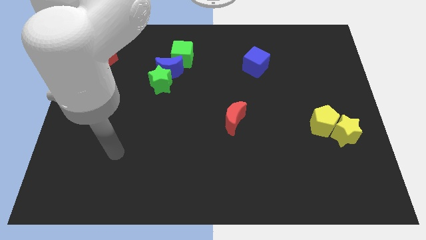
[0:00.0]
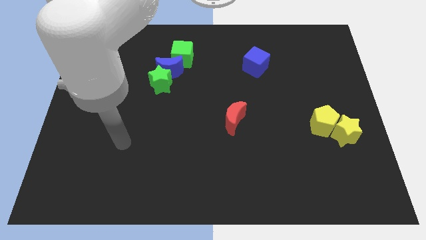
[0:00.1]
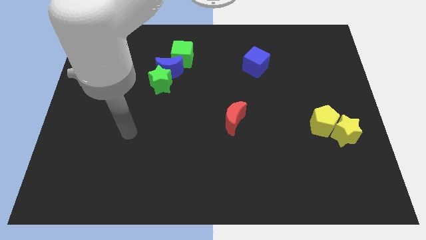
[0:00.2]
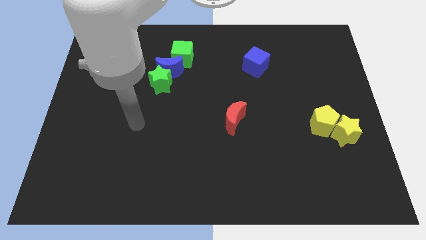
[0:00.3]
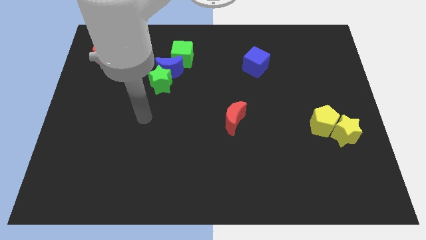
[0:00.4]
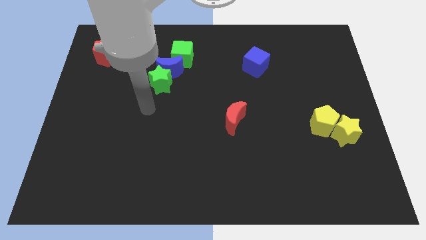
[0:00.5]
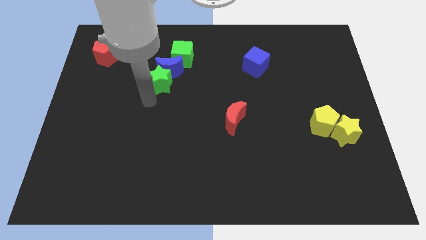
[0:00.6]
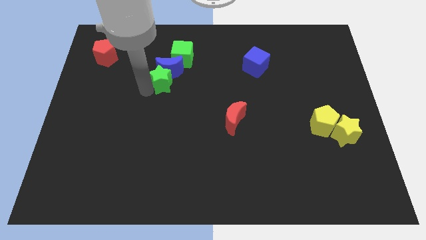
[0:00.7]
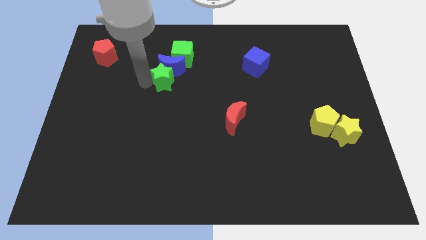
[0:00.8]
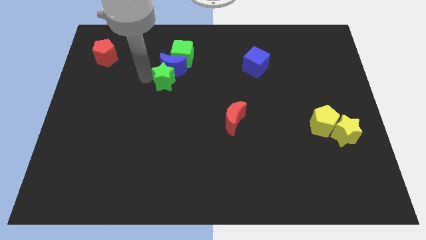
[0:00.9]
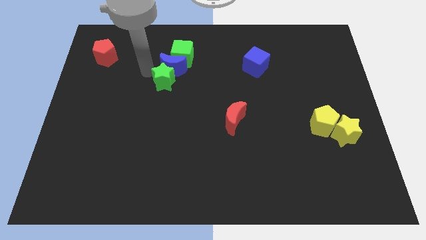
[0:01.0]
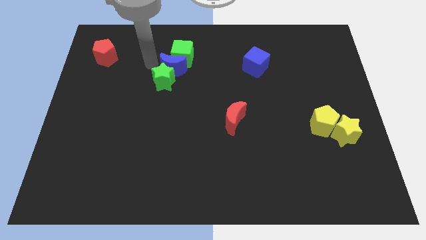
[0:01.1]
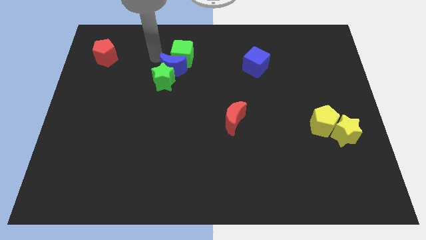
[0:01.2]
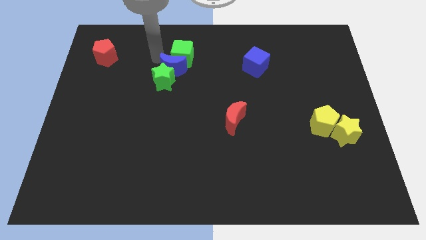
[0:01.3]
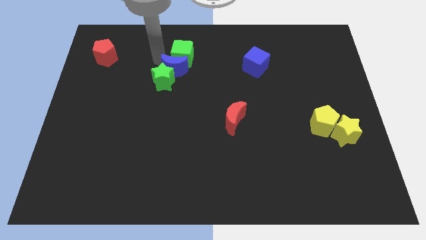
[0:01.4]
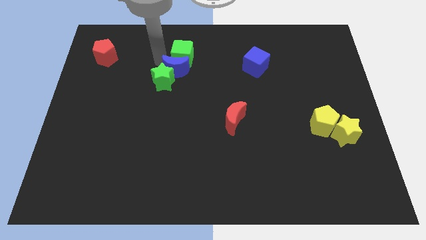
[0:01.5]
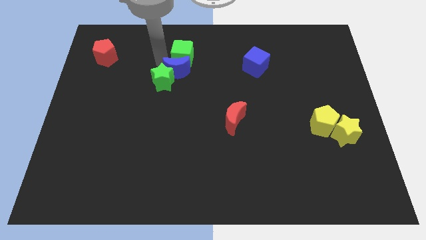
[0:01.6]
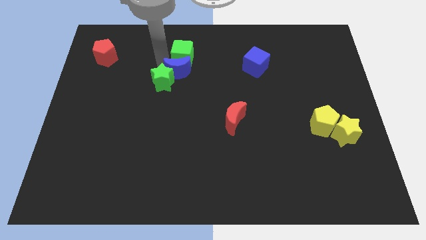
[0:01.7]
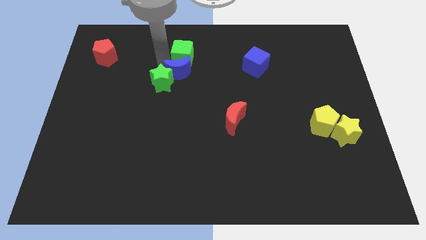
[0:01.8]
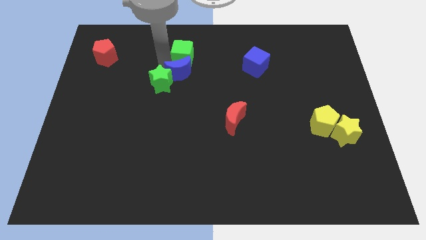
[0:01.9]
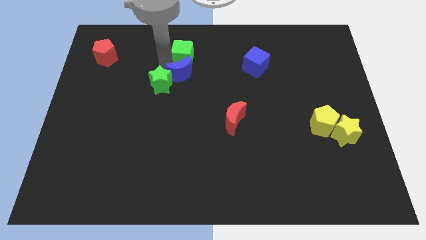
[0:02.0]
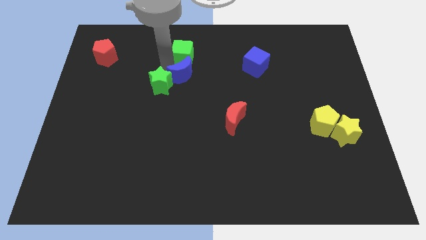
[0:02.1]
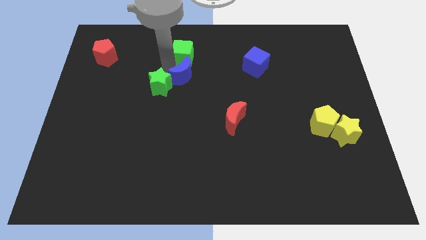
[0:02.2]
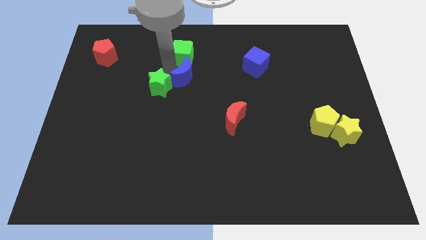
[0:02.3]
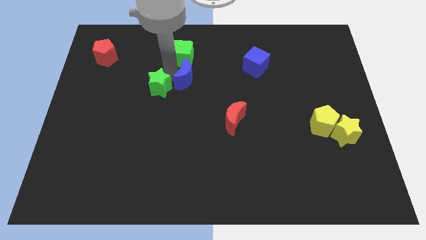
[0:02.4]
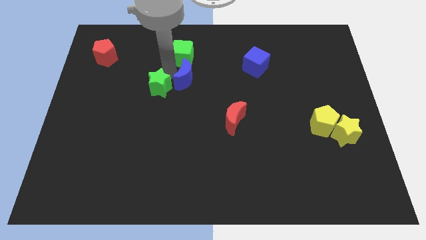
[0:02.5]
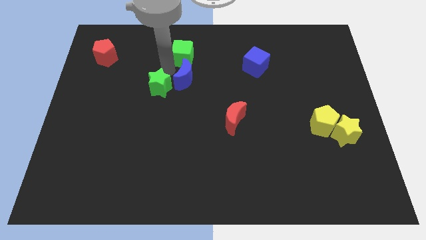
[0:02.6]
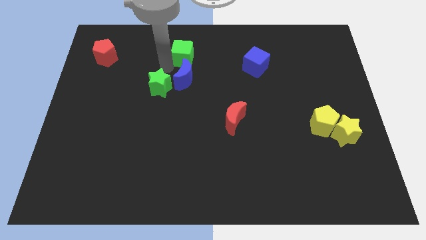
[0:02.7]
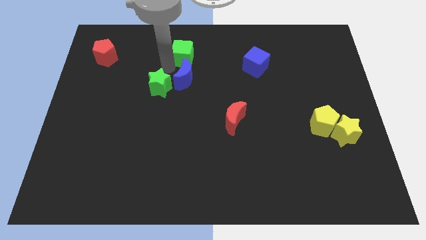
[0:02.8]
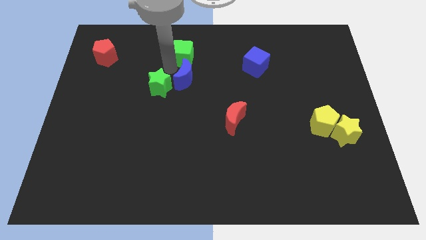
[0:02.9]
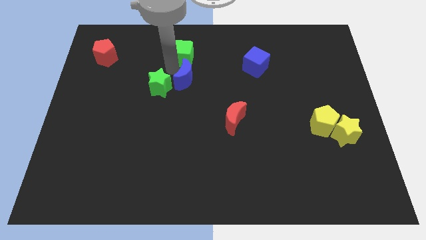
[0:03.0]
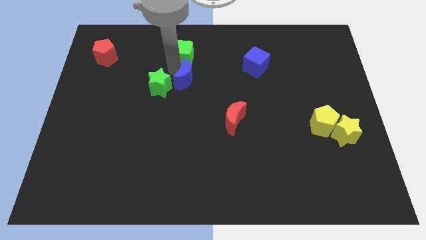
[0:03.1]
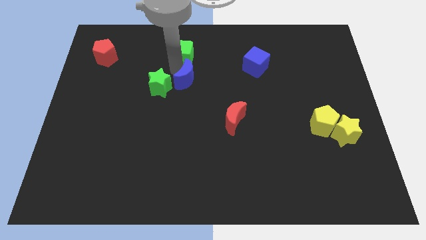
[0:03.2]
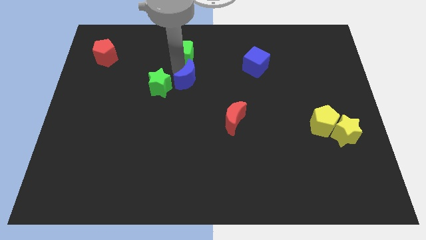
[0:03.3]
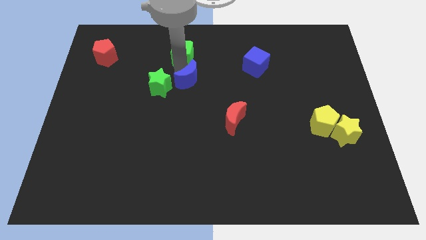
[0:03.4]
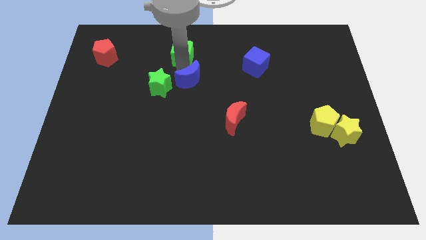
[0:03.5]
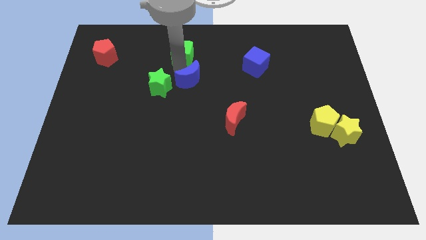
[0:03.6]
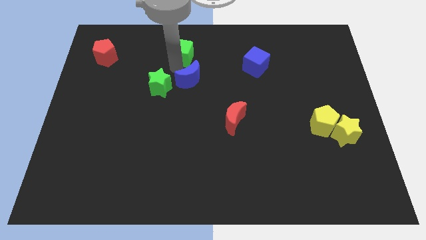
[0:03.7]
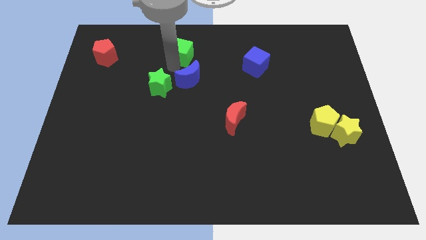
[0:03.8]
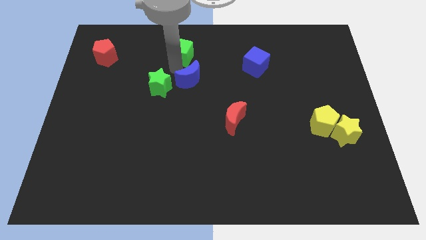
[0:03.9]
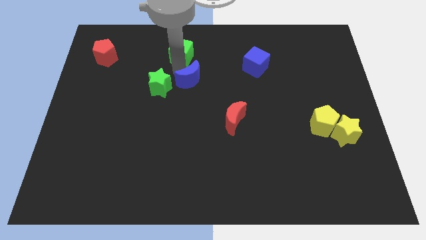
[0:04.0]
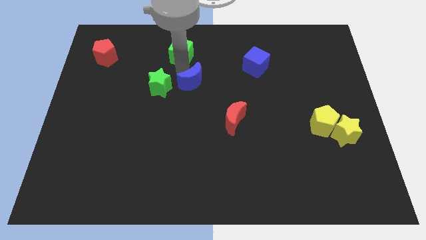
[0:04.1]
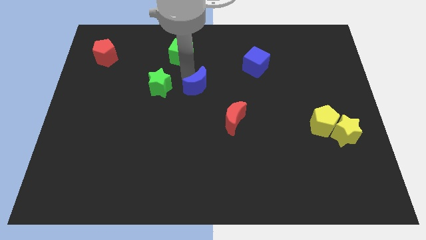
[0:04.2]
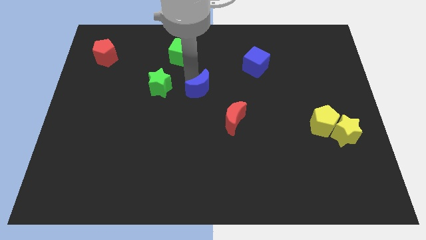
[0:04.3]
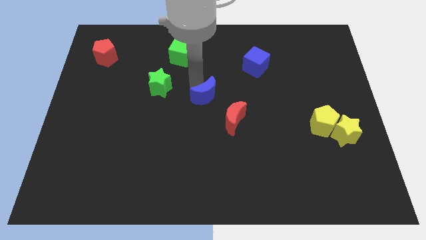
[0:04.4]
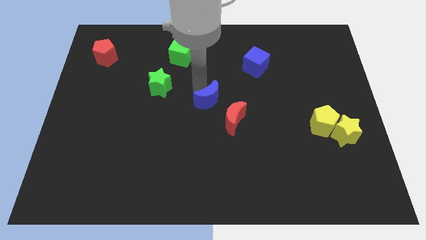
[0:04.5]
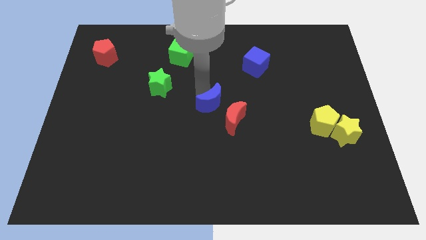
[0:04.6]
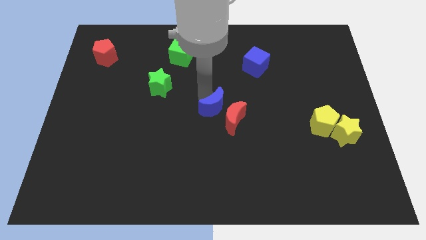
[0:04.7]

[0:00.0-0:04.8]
push the blue moon close to the red moon

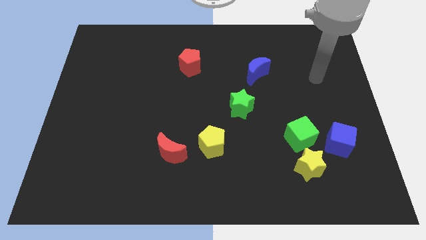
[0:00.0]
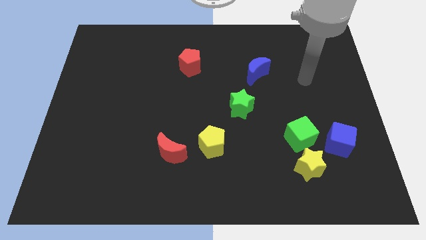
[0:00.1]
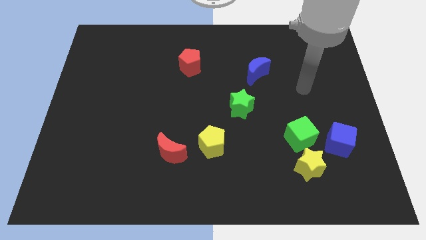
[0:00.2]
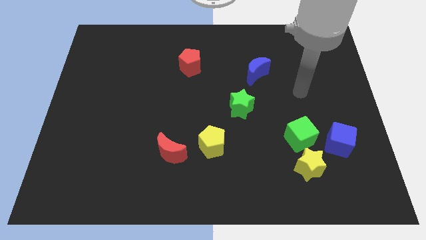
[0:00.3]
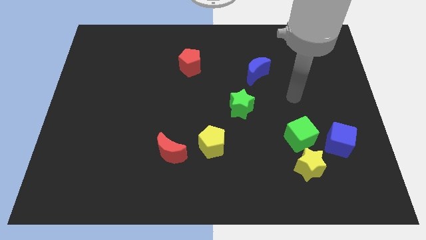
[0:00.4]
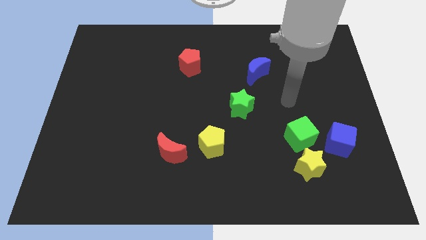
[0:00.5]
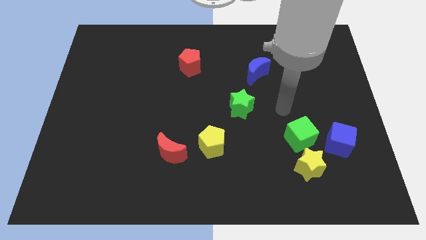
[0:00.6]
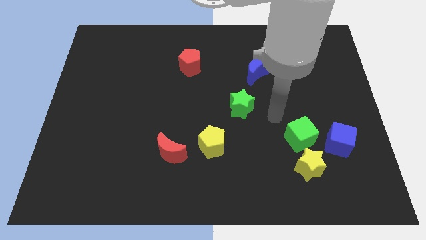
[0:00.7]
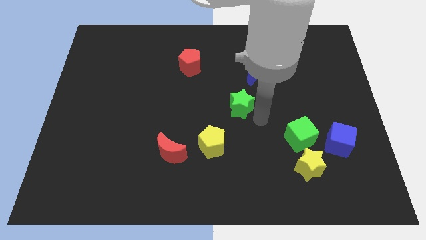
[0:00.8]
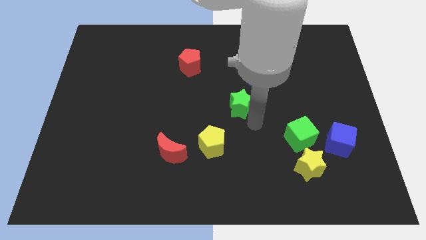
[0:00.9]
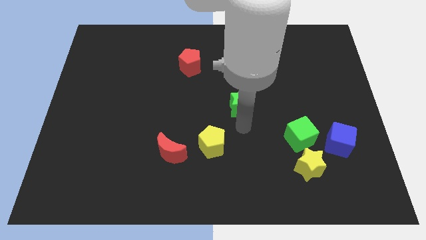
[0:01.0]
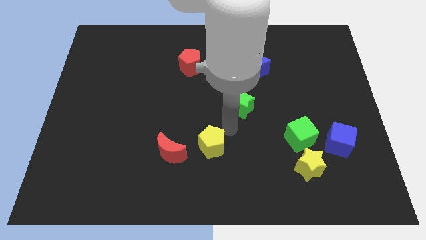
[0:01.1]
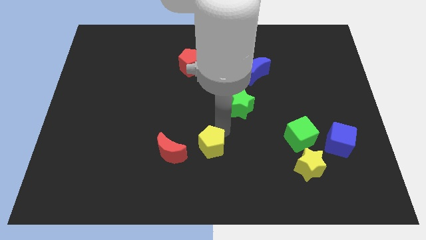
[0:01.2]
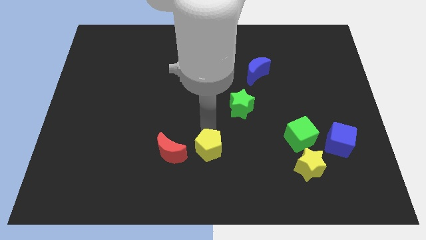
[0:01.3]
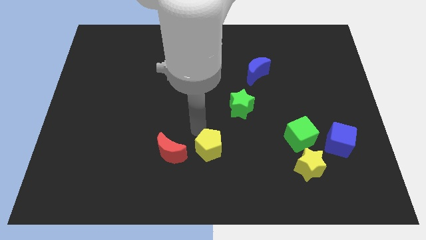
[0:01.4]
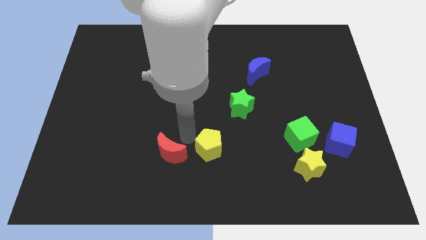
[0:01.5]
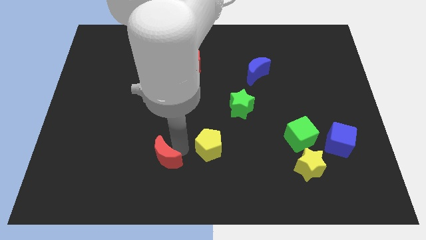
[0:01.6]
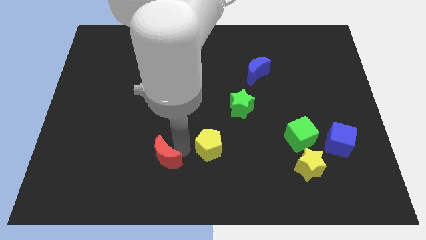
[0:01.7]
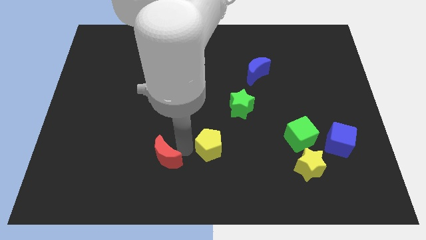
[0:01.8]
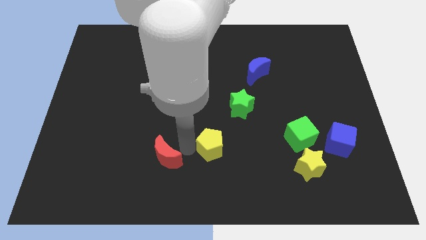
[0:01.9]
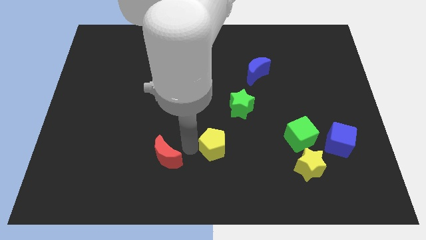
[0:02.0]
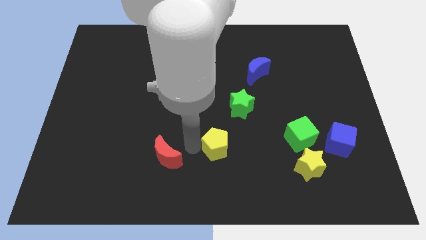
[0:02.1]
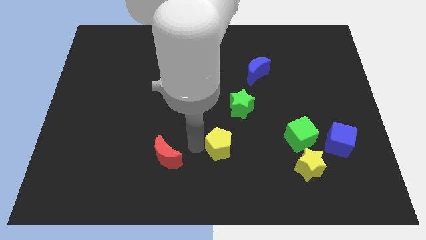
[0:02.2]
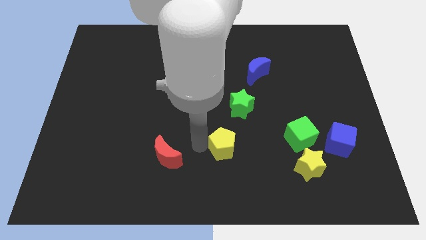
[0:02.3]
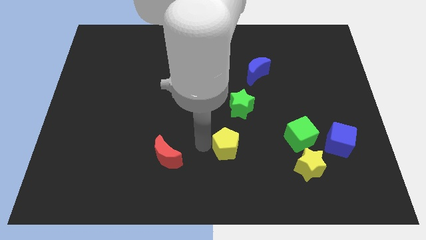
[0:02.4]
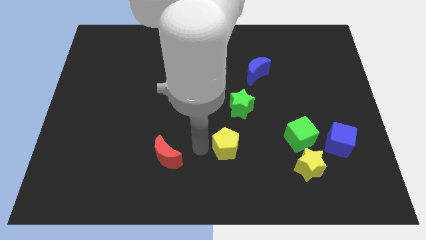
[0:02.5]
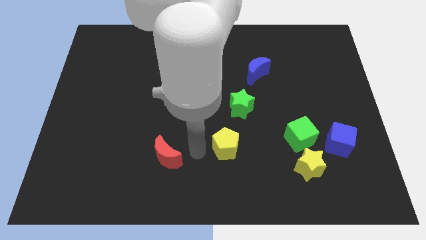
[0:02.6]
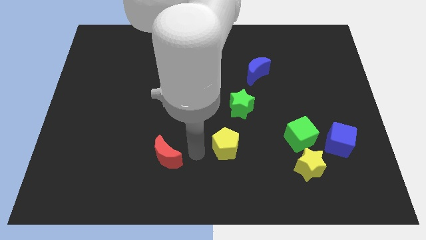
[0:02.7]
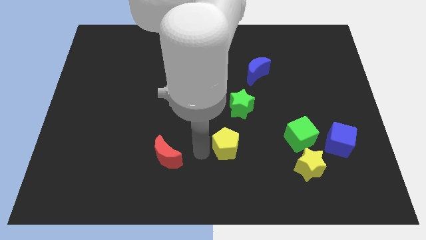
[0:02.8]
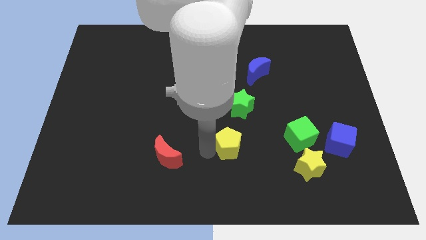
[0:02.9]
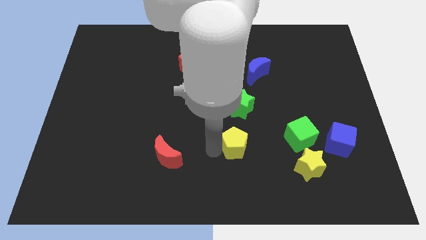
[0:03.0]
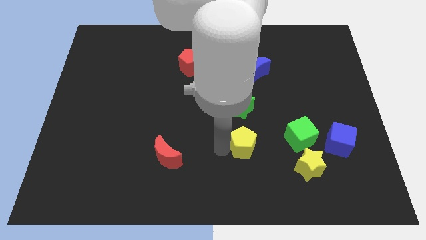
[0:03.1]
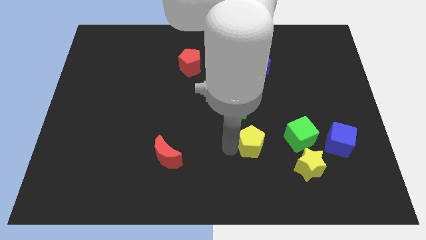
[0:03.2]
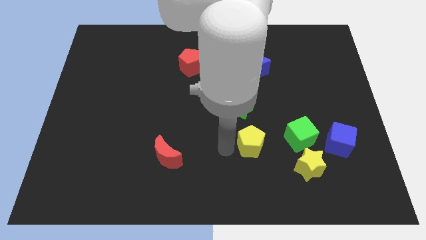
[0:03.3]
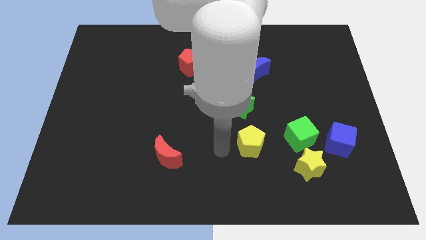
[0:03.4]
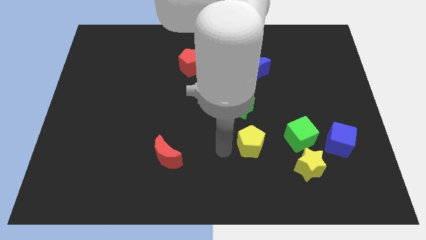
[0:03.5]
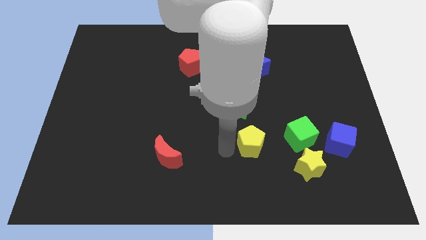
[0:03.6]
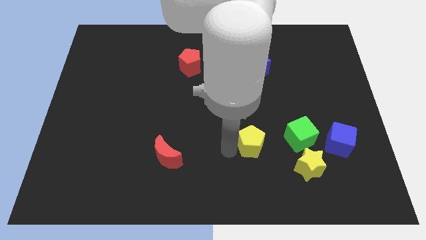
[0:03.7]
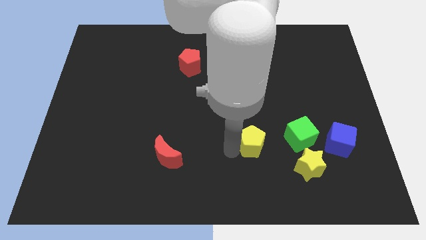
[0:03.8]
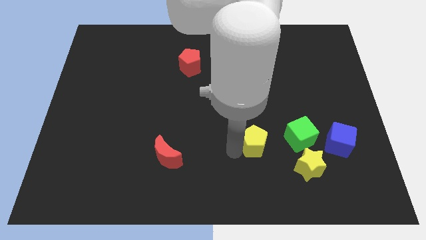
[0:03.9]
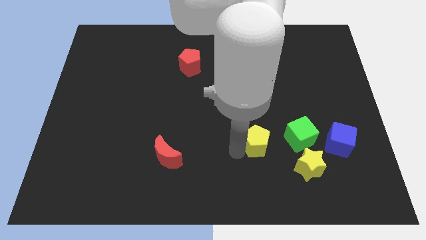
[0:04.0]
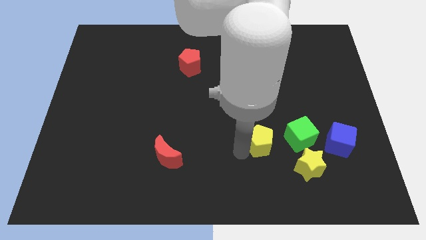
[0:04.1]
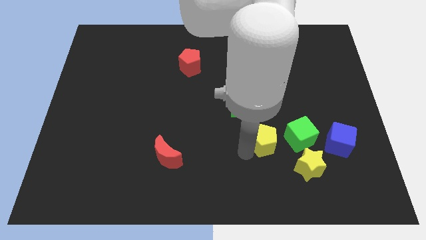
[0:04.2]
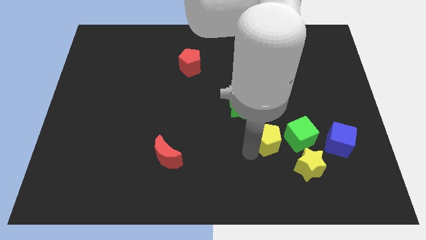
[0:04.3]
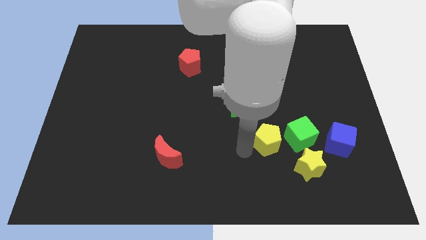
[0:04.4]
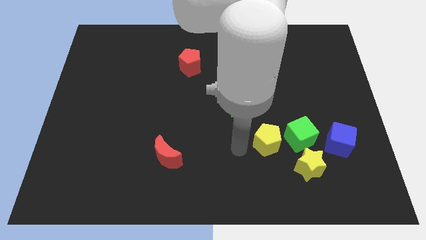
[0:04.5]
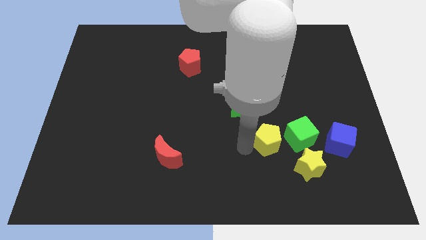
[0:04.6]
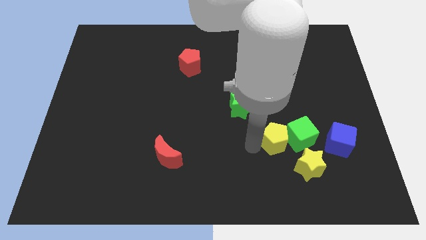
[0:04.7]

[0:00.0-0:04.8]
move the yellow pentagon to the green cube
